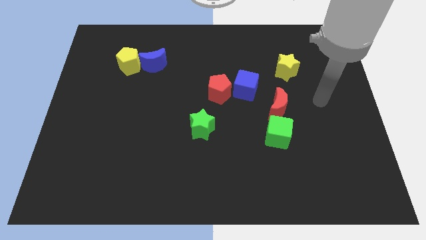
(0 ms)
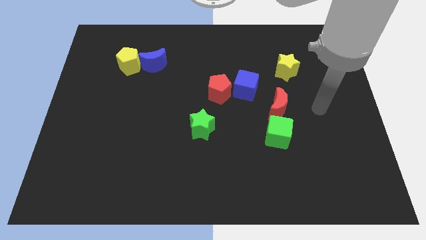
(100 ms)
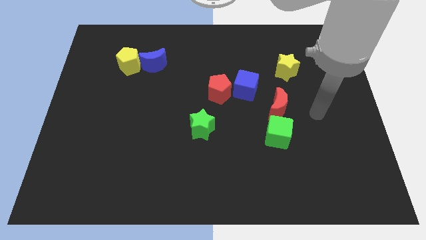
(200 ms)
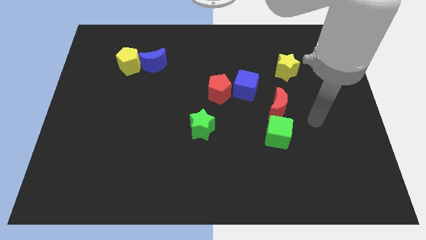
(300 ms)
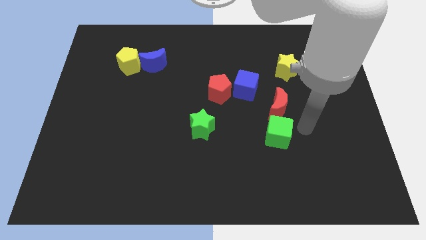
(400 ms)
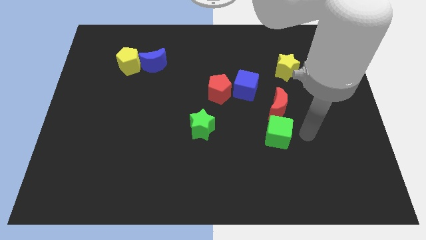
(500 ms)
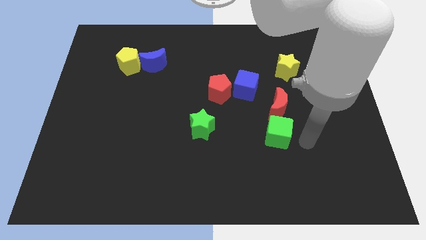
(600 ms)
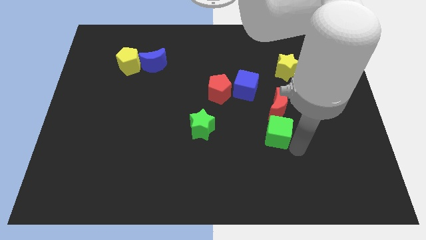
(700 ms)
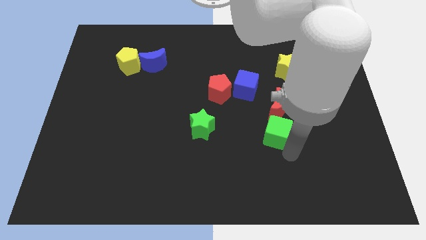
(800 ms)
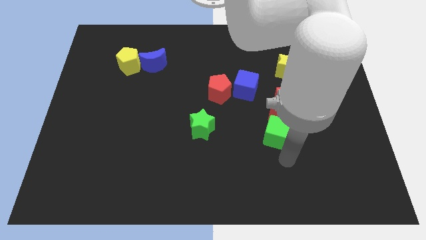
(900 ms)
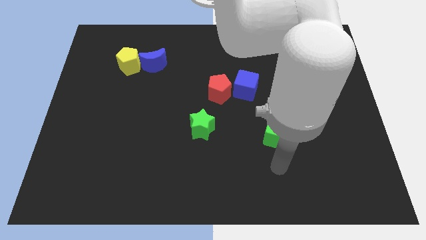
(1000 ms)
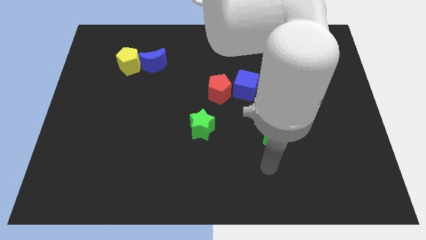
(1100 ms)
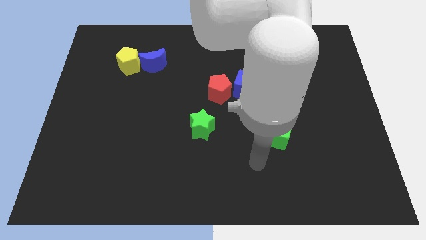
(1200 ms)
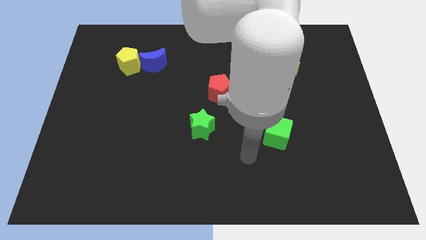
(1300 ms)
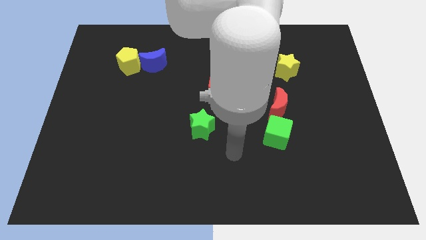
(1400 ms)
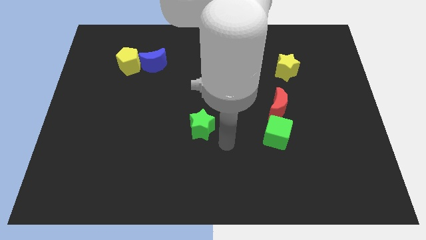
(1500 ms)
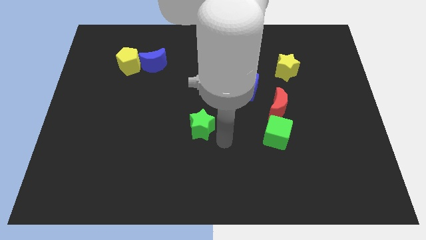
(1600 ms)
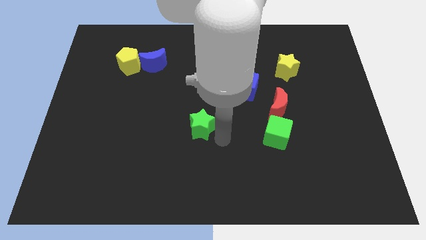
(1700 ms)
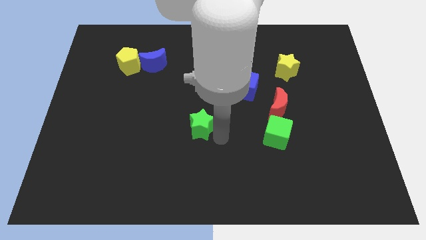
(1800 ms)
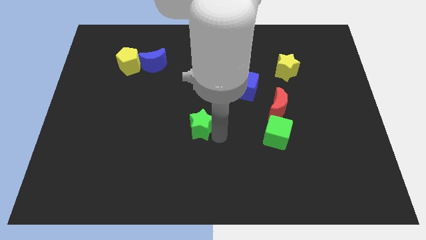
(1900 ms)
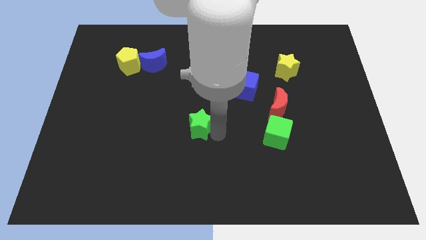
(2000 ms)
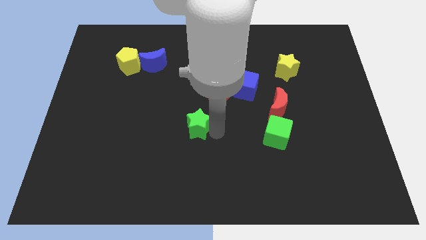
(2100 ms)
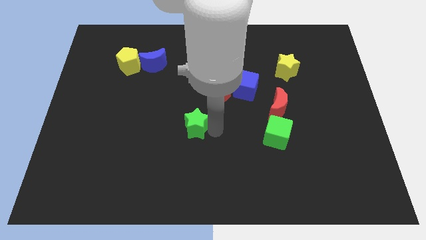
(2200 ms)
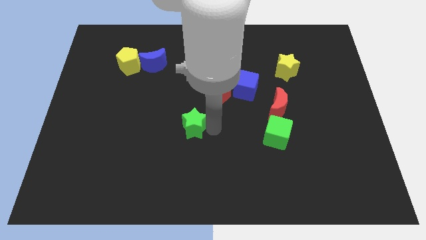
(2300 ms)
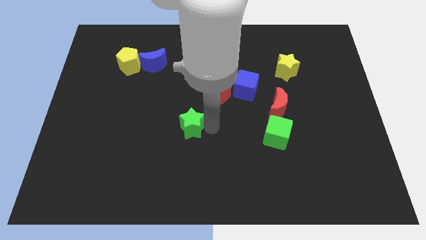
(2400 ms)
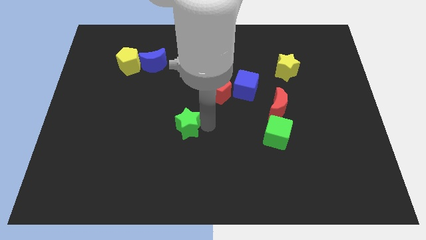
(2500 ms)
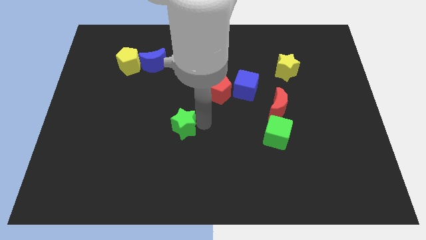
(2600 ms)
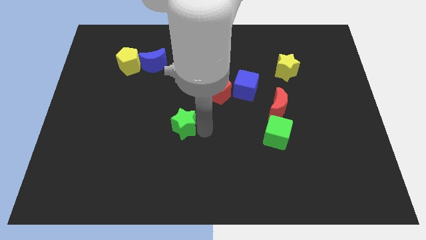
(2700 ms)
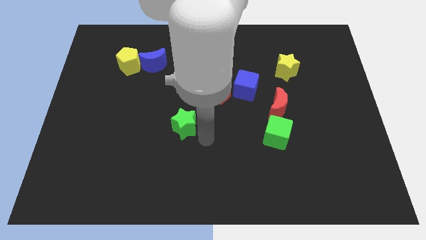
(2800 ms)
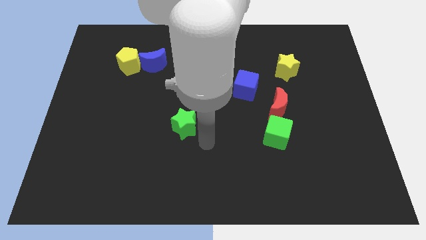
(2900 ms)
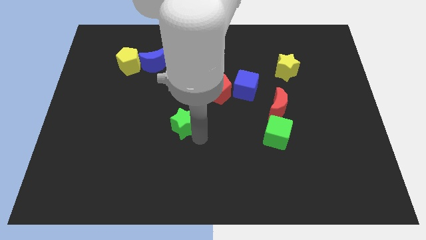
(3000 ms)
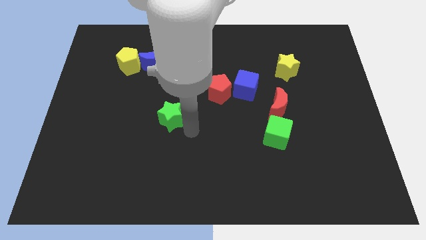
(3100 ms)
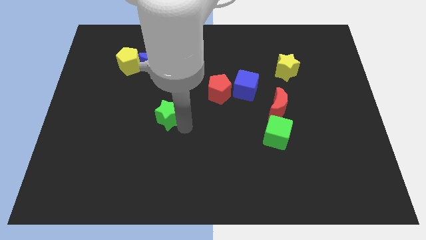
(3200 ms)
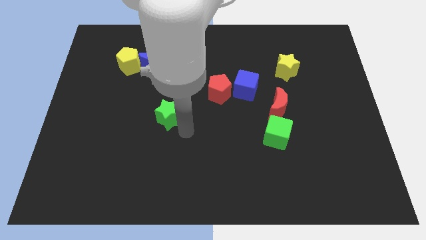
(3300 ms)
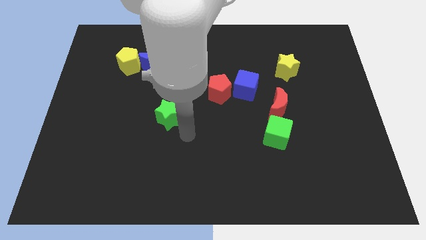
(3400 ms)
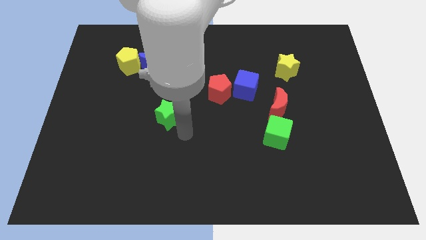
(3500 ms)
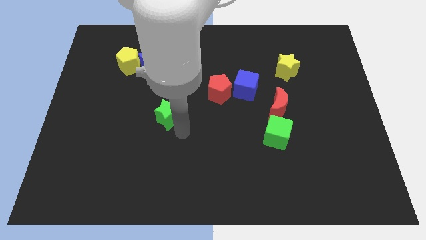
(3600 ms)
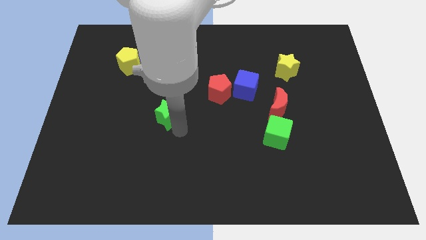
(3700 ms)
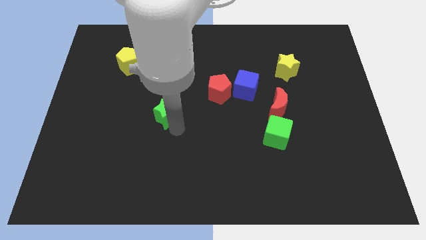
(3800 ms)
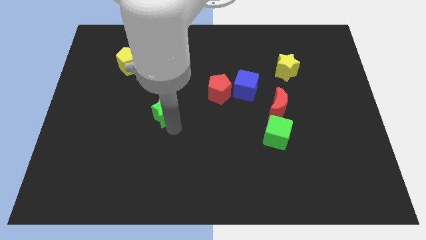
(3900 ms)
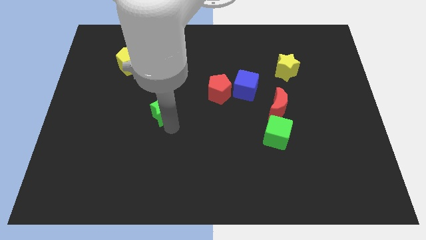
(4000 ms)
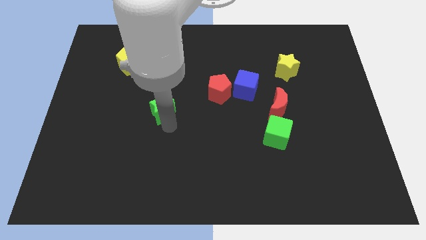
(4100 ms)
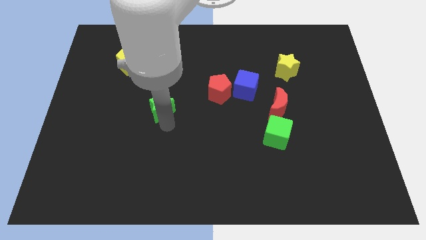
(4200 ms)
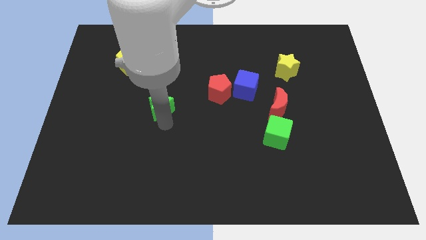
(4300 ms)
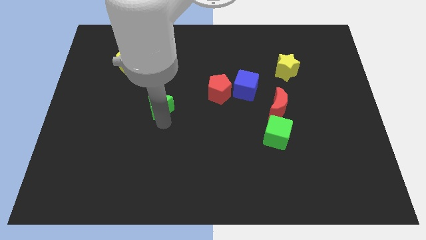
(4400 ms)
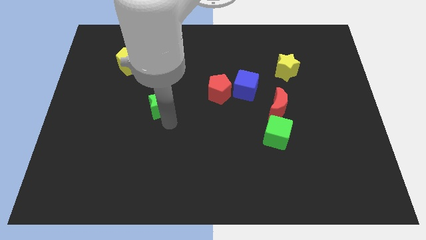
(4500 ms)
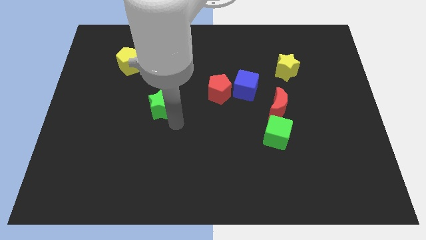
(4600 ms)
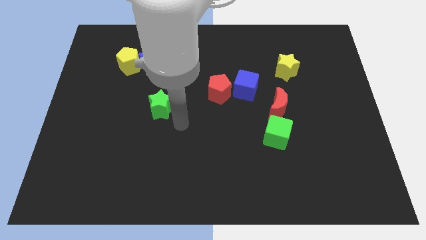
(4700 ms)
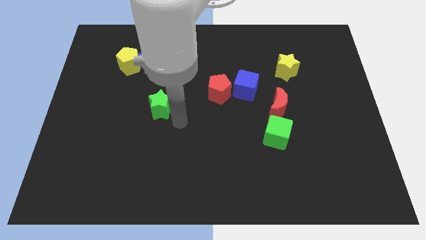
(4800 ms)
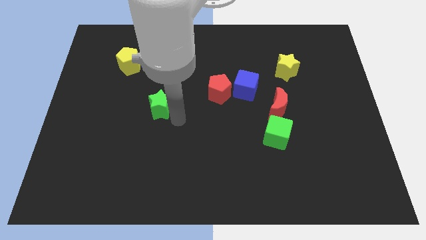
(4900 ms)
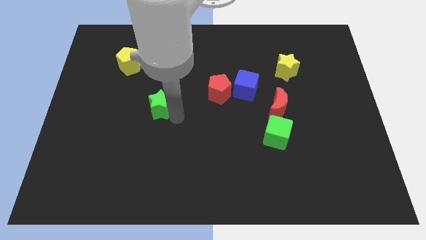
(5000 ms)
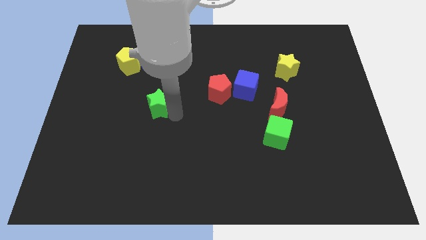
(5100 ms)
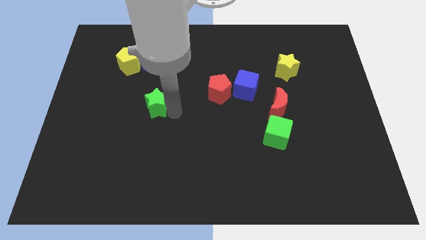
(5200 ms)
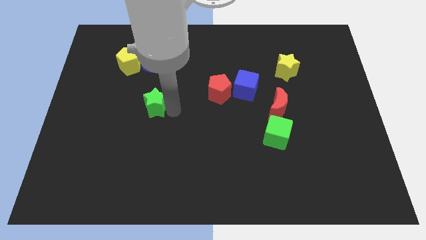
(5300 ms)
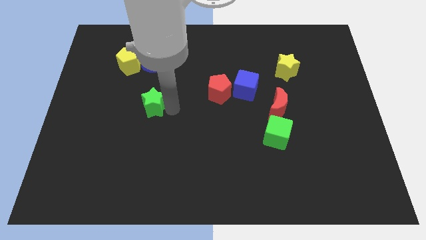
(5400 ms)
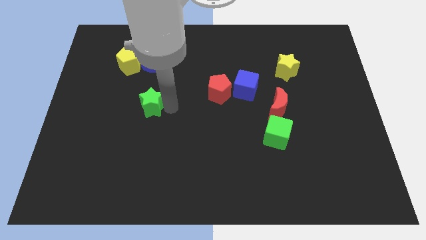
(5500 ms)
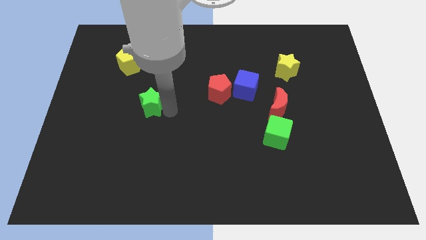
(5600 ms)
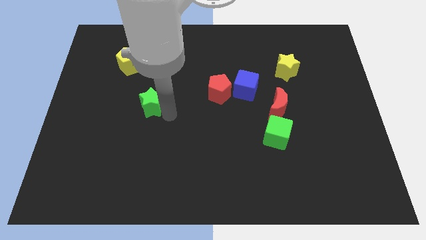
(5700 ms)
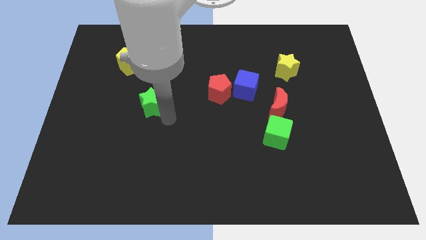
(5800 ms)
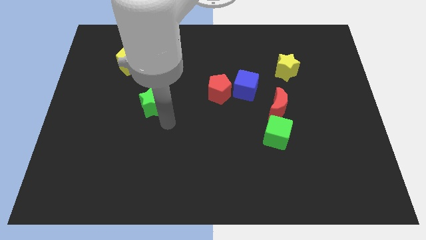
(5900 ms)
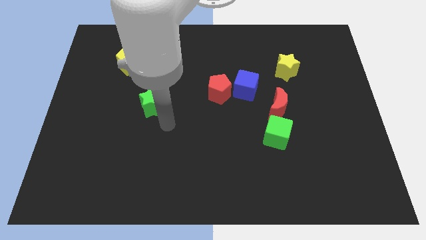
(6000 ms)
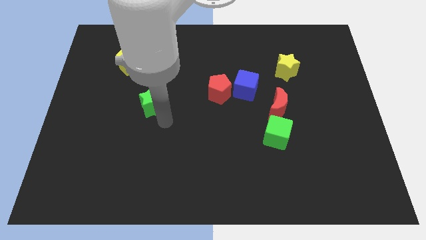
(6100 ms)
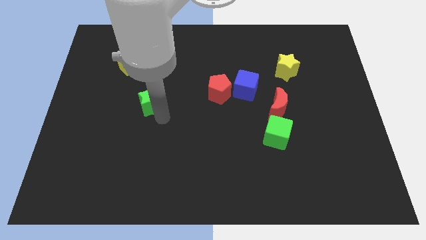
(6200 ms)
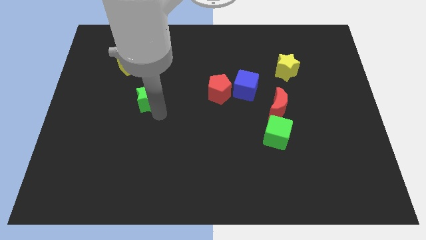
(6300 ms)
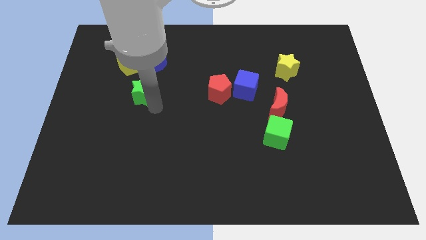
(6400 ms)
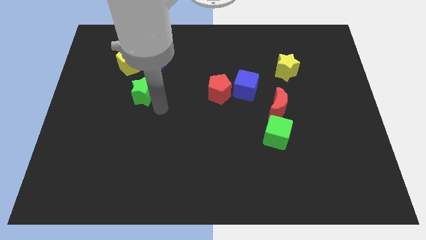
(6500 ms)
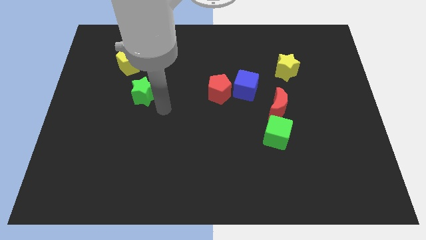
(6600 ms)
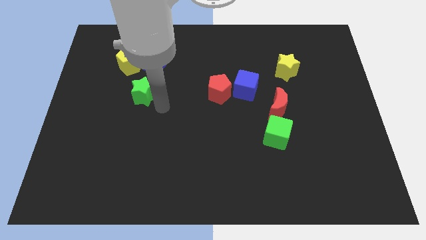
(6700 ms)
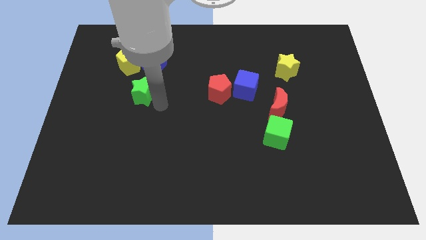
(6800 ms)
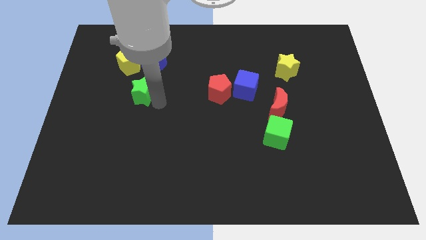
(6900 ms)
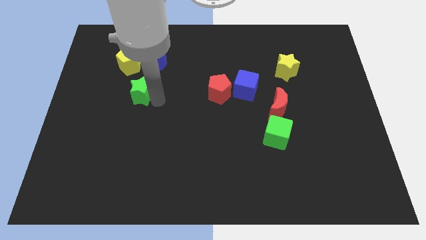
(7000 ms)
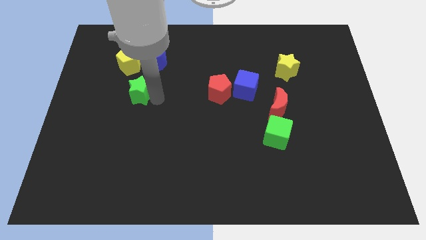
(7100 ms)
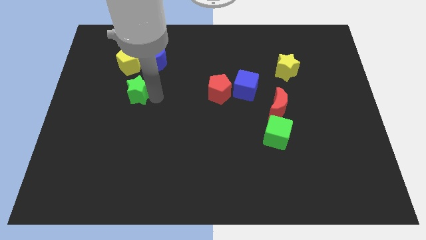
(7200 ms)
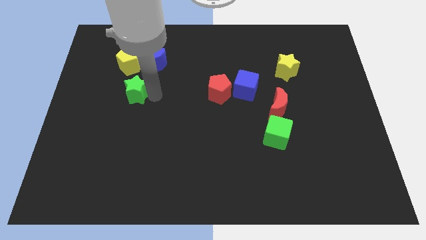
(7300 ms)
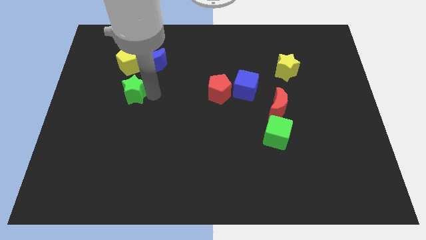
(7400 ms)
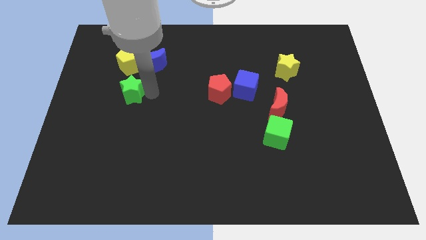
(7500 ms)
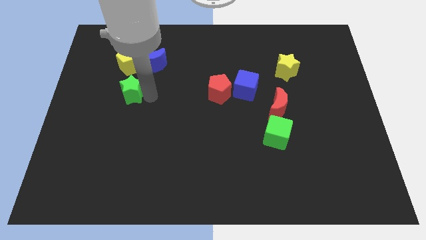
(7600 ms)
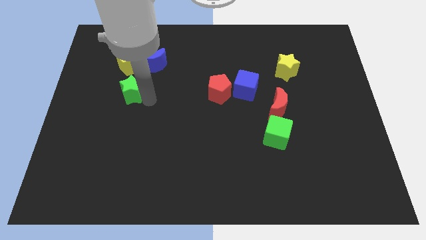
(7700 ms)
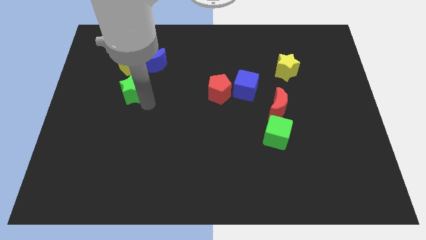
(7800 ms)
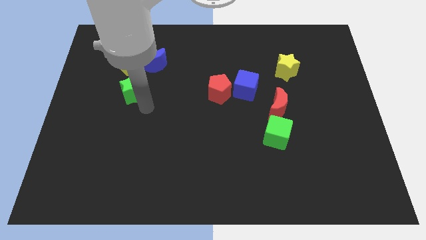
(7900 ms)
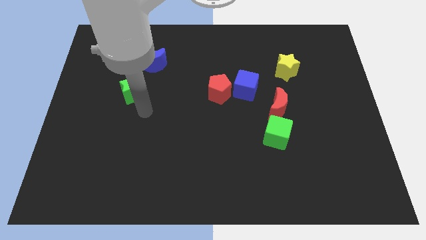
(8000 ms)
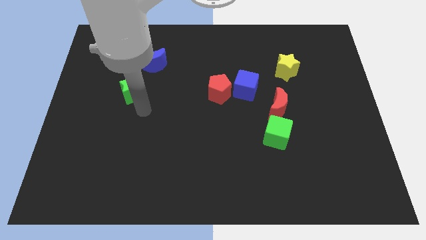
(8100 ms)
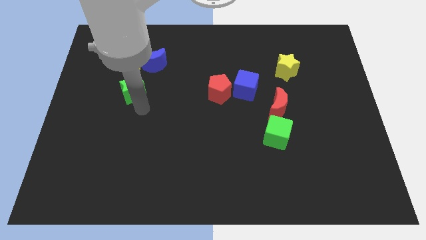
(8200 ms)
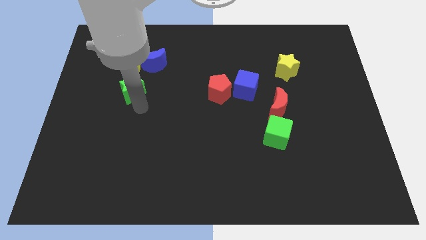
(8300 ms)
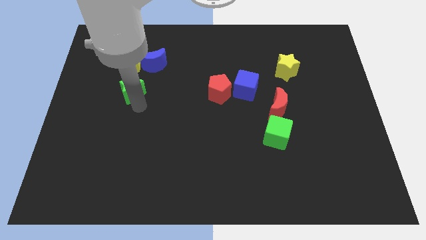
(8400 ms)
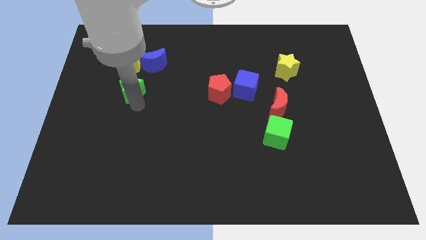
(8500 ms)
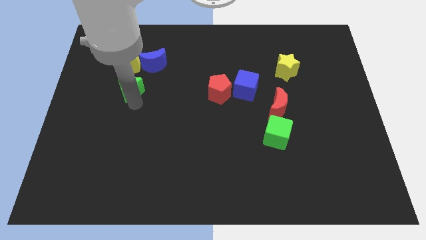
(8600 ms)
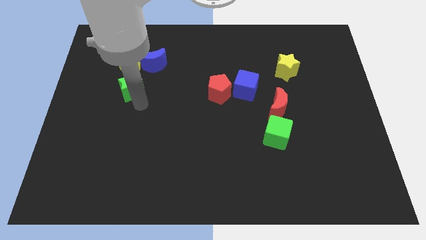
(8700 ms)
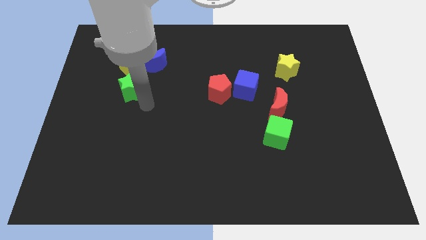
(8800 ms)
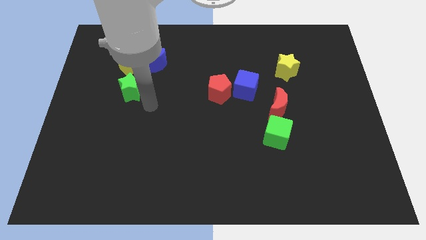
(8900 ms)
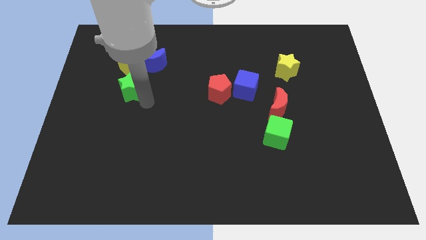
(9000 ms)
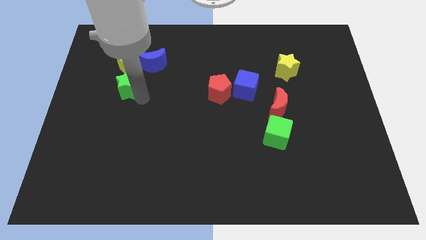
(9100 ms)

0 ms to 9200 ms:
move the green star up and left
